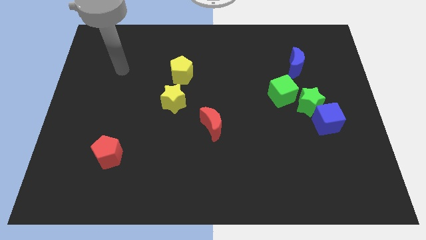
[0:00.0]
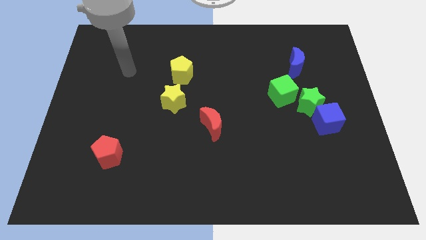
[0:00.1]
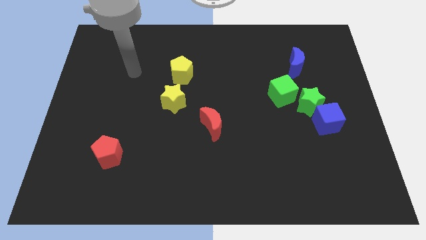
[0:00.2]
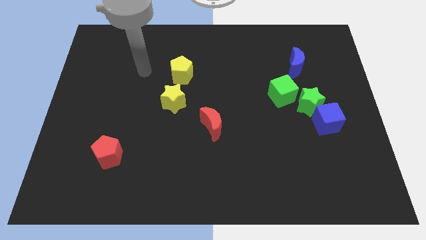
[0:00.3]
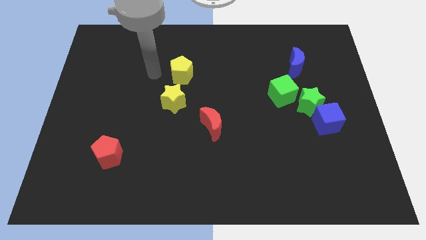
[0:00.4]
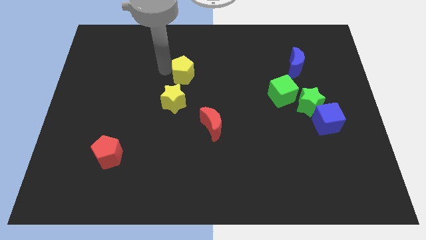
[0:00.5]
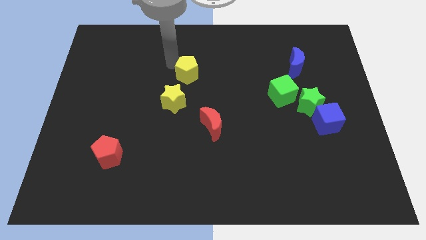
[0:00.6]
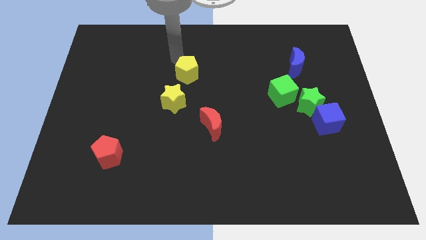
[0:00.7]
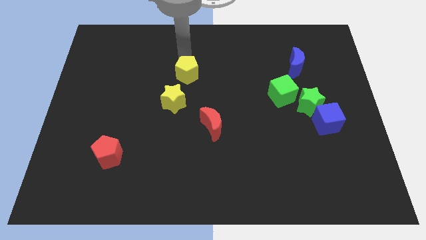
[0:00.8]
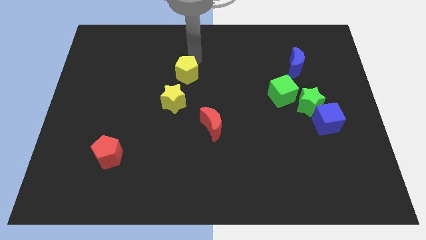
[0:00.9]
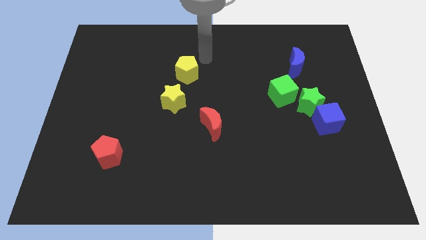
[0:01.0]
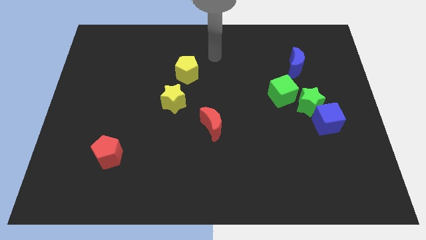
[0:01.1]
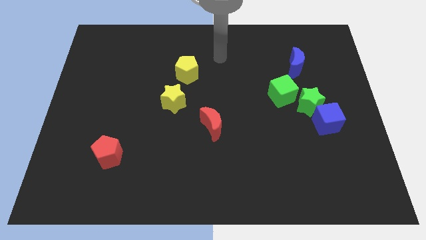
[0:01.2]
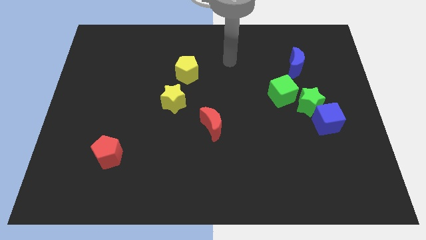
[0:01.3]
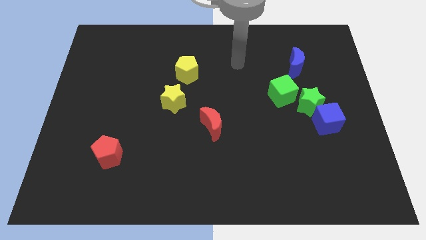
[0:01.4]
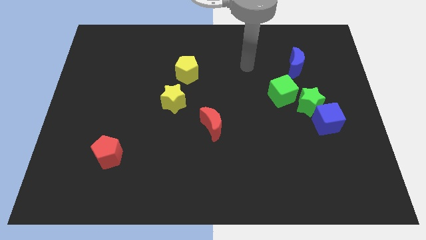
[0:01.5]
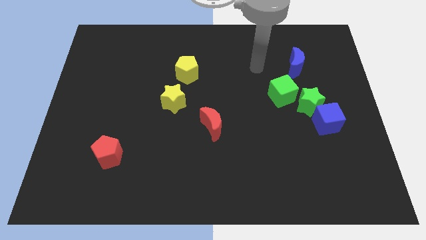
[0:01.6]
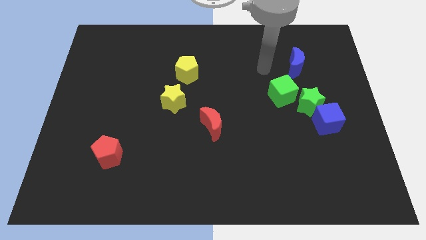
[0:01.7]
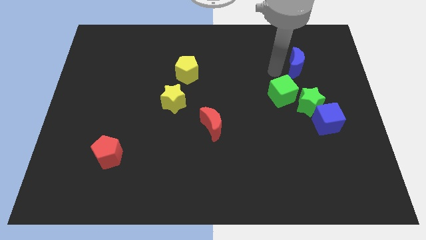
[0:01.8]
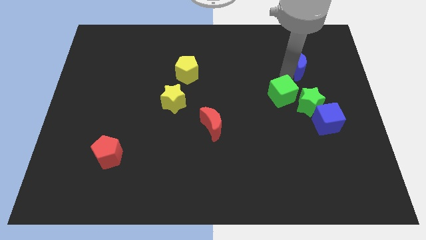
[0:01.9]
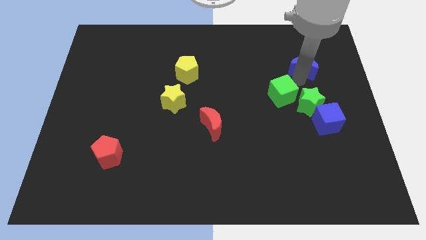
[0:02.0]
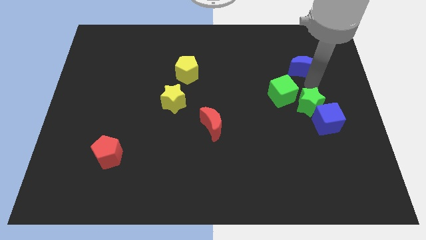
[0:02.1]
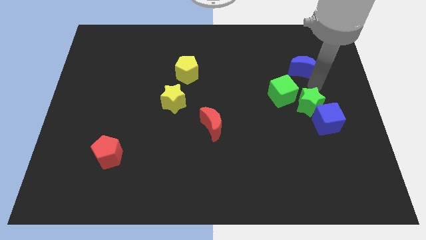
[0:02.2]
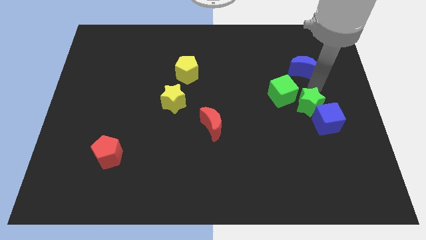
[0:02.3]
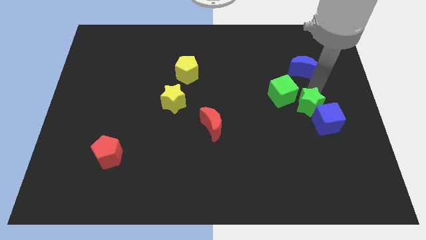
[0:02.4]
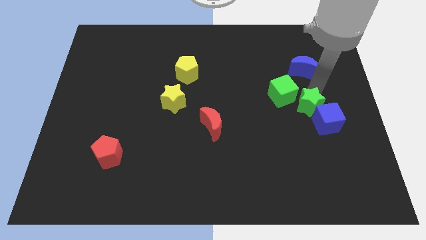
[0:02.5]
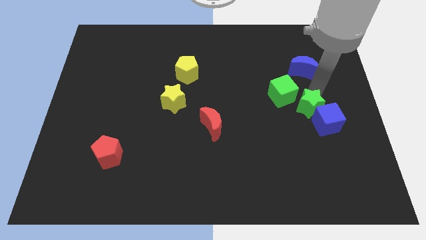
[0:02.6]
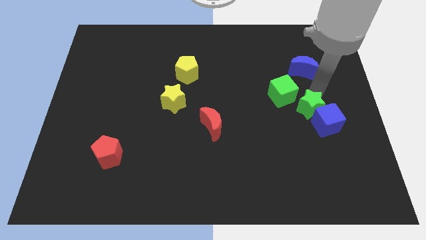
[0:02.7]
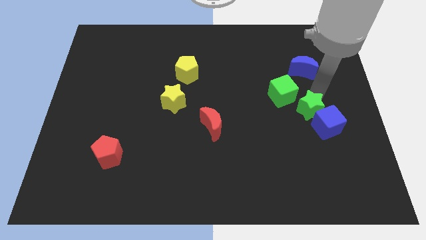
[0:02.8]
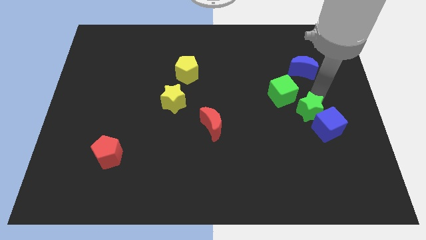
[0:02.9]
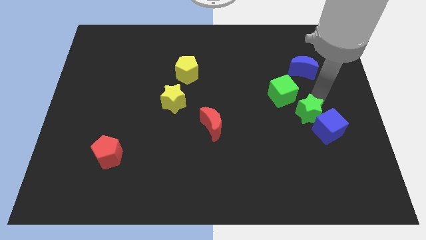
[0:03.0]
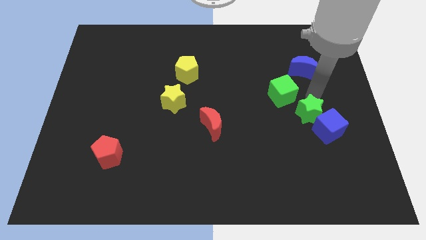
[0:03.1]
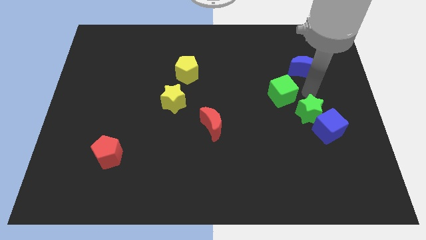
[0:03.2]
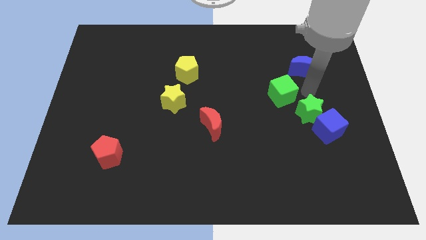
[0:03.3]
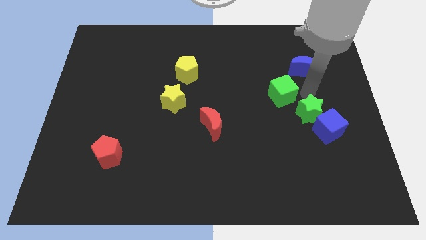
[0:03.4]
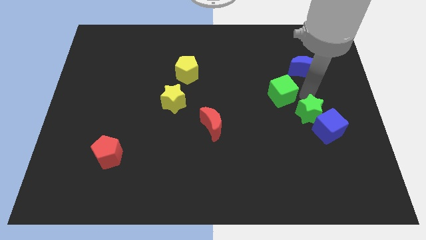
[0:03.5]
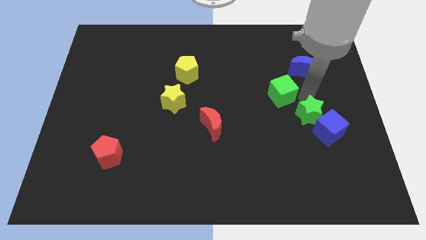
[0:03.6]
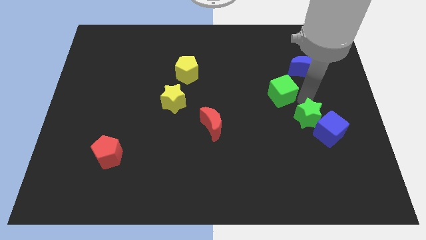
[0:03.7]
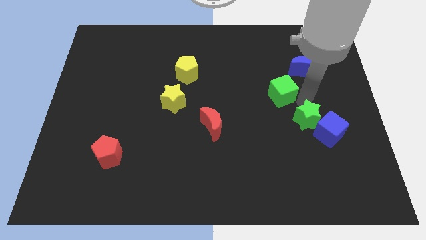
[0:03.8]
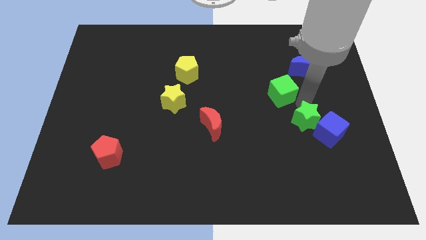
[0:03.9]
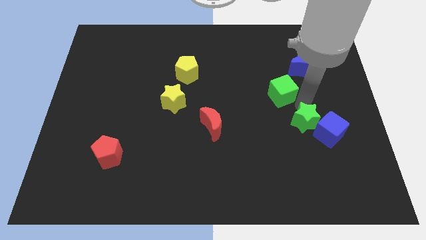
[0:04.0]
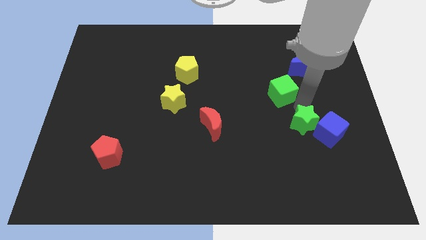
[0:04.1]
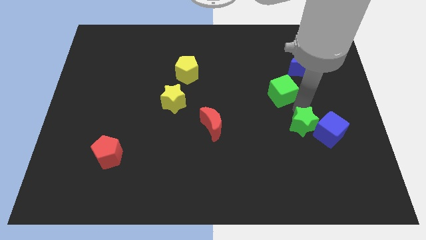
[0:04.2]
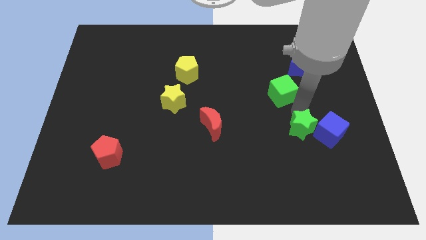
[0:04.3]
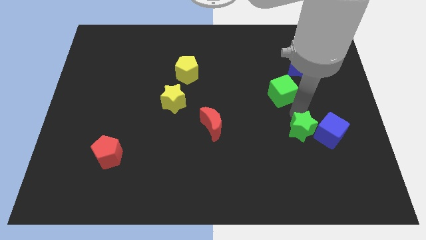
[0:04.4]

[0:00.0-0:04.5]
slightly push the green star down

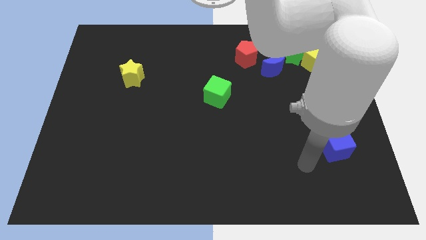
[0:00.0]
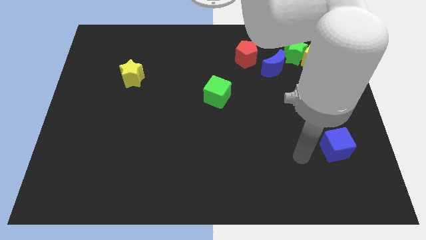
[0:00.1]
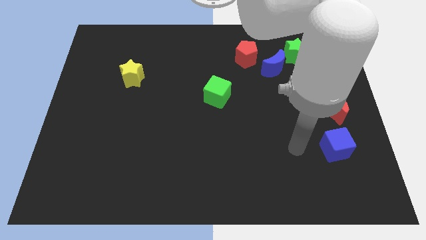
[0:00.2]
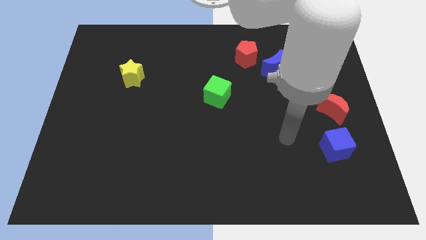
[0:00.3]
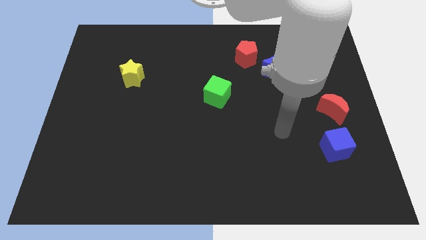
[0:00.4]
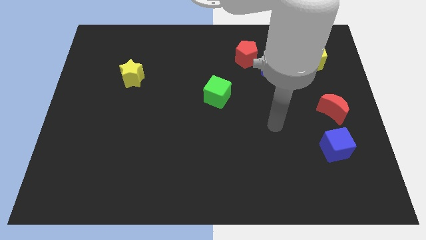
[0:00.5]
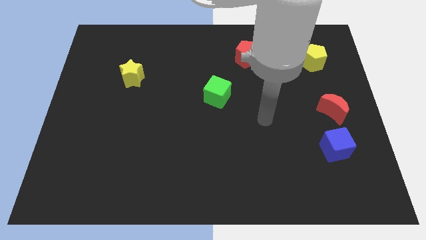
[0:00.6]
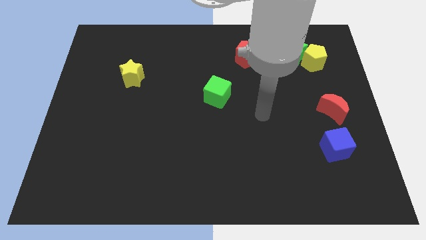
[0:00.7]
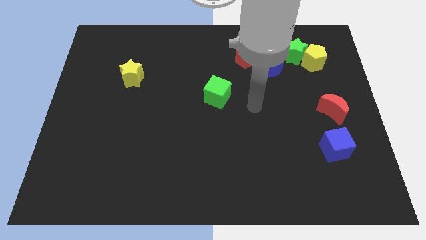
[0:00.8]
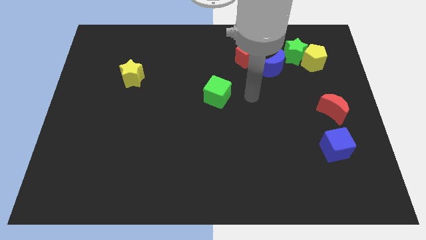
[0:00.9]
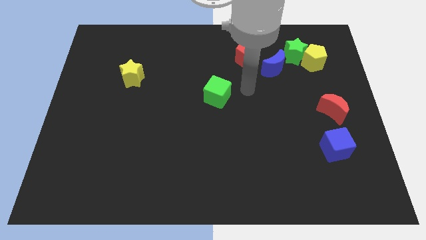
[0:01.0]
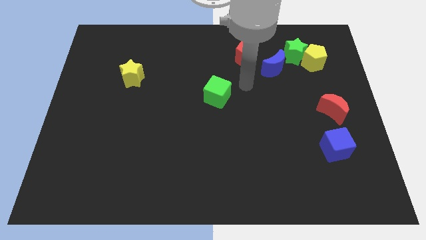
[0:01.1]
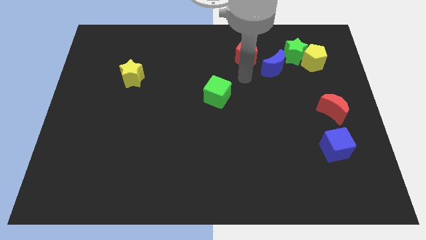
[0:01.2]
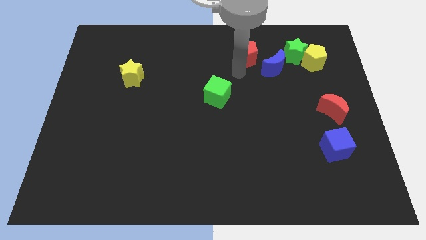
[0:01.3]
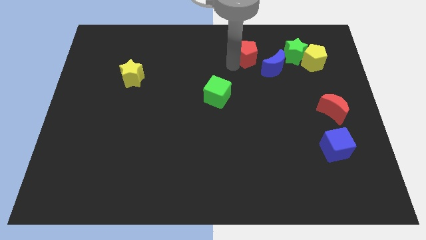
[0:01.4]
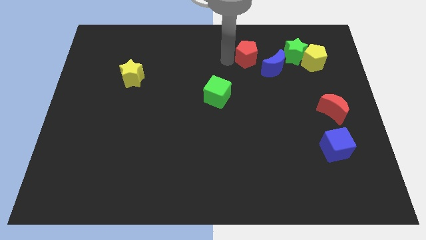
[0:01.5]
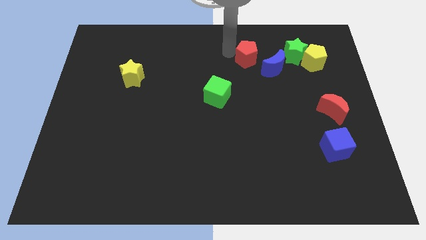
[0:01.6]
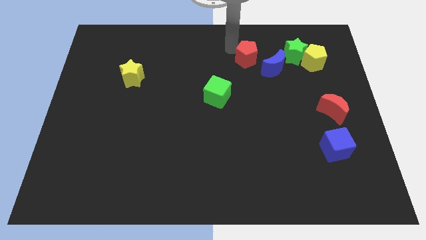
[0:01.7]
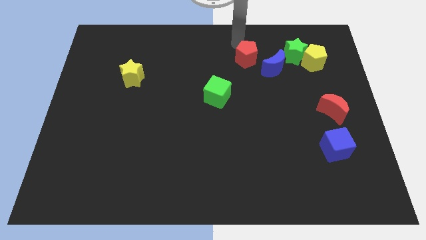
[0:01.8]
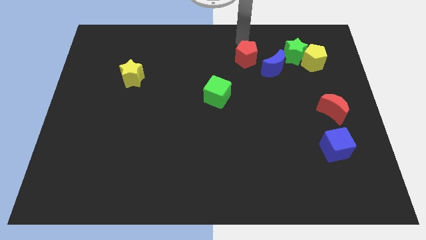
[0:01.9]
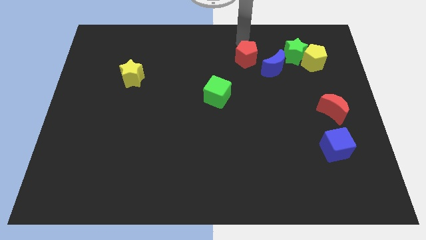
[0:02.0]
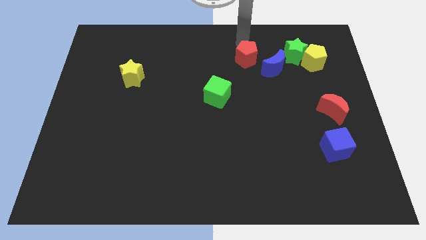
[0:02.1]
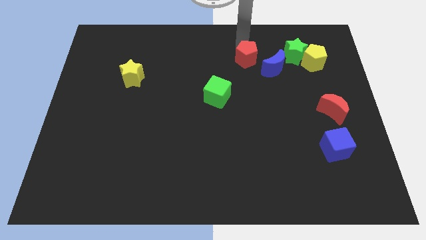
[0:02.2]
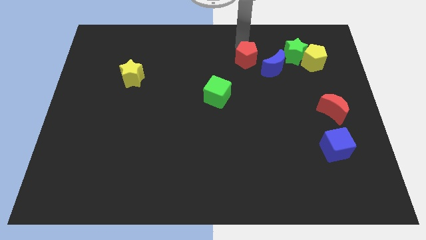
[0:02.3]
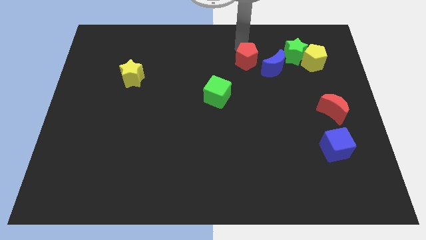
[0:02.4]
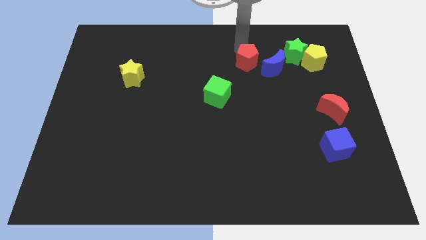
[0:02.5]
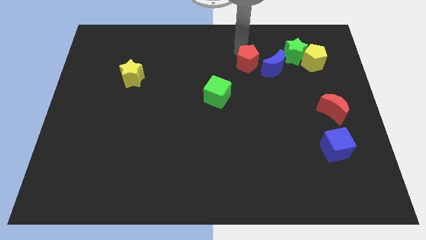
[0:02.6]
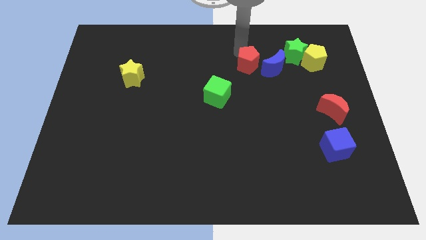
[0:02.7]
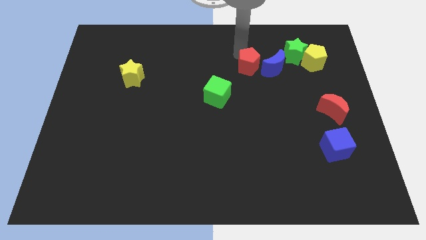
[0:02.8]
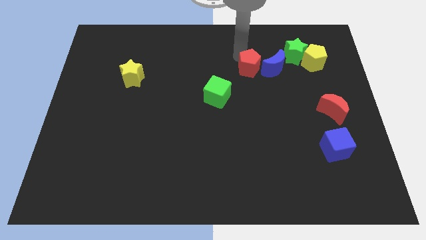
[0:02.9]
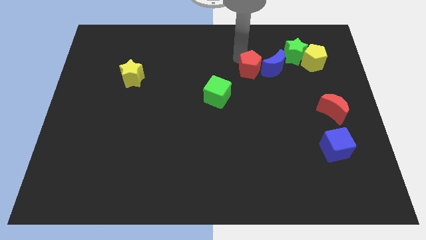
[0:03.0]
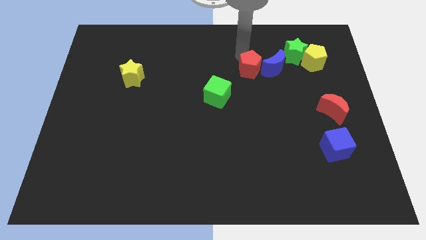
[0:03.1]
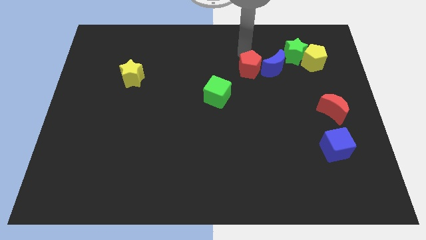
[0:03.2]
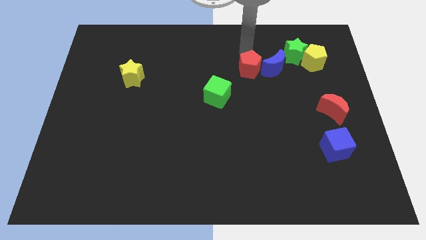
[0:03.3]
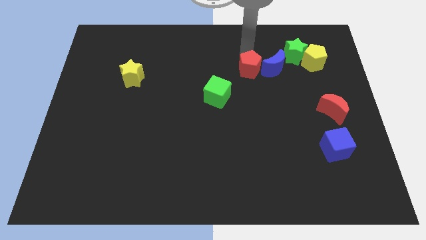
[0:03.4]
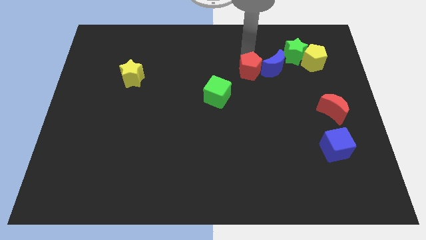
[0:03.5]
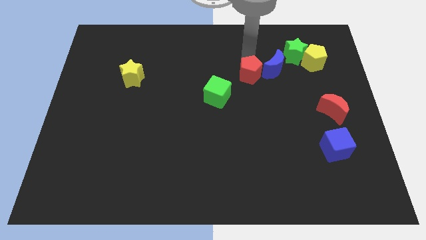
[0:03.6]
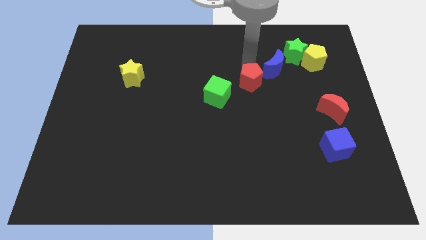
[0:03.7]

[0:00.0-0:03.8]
push the red pentagon somewhat downwards
